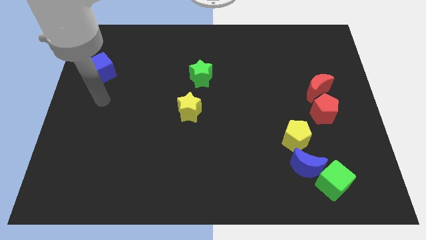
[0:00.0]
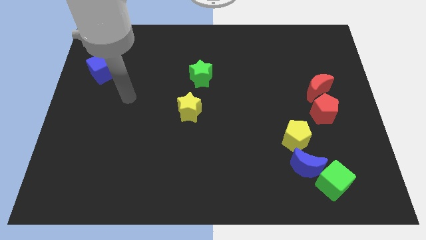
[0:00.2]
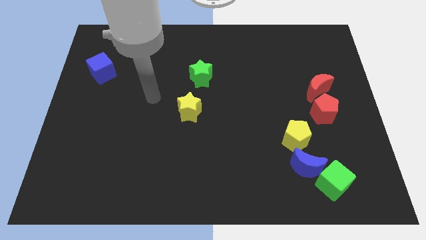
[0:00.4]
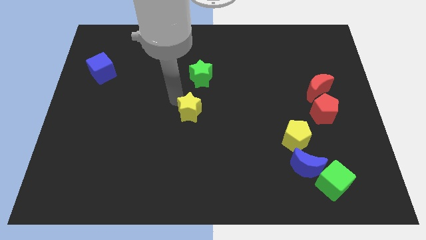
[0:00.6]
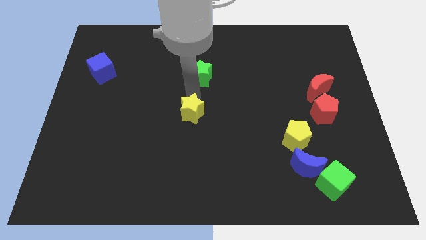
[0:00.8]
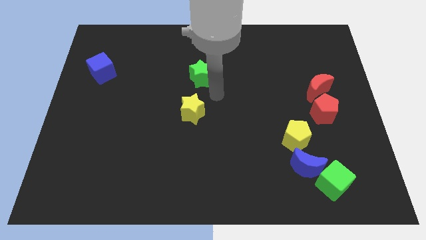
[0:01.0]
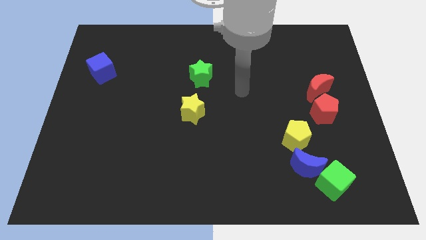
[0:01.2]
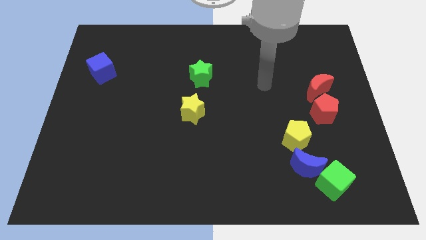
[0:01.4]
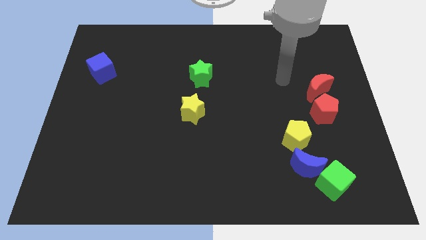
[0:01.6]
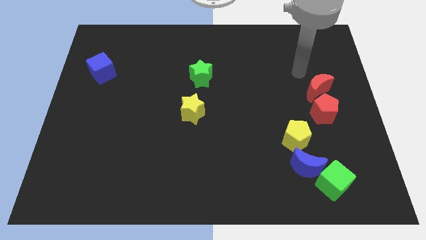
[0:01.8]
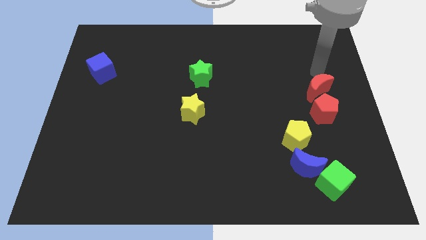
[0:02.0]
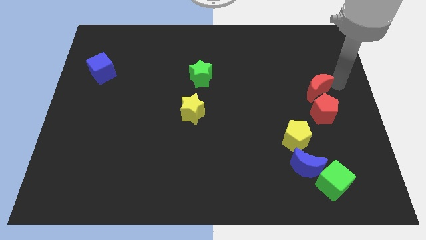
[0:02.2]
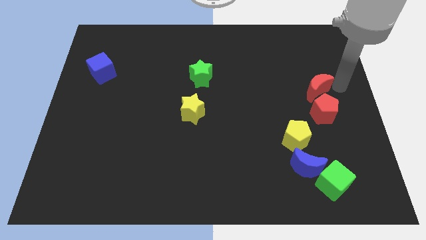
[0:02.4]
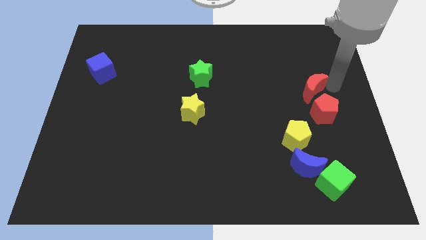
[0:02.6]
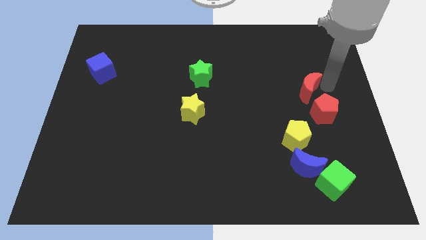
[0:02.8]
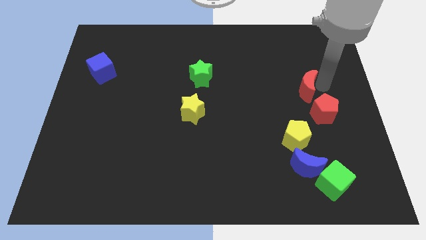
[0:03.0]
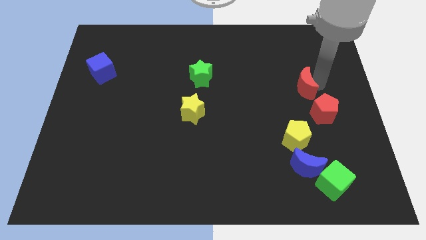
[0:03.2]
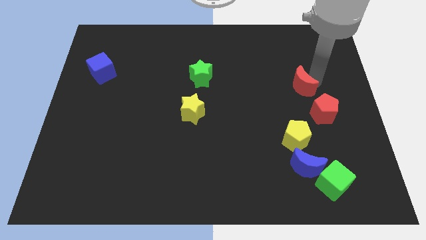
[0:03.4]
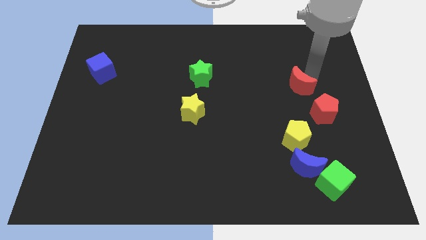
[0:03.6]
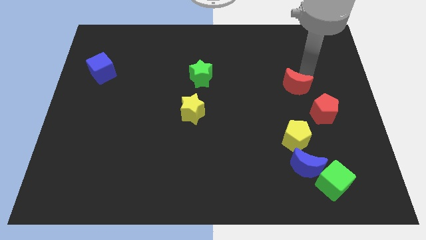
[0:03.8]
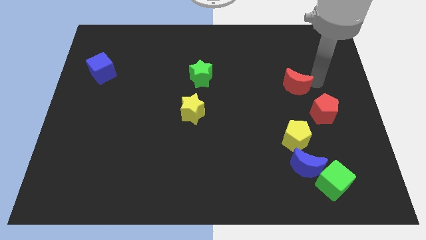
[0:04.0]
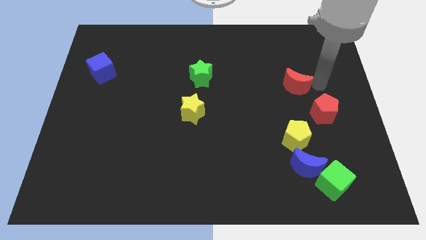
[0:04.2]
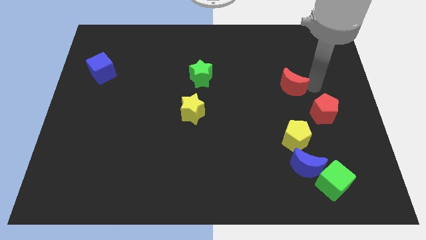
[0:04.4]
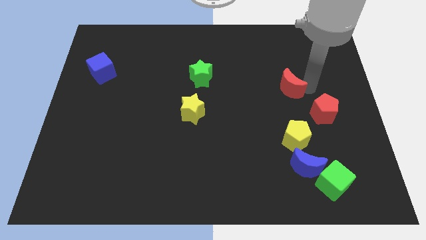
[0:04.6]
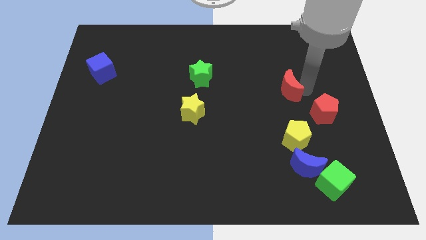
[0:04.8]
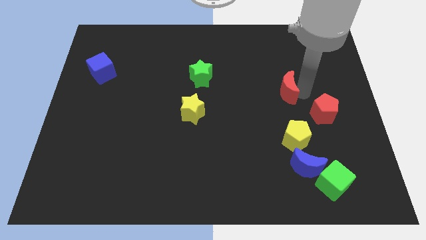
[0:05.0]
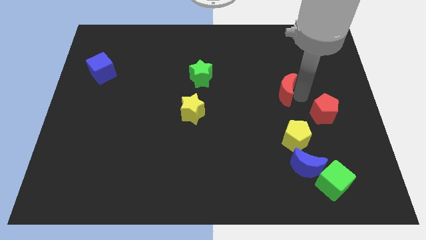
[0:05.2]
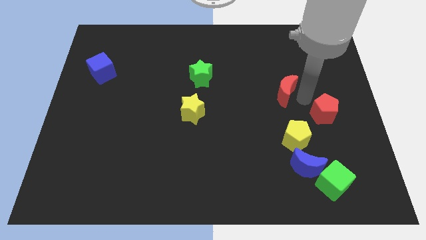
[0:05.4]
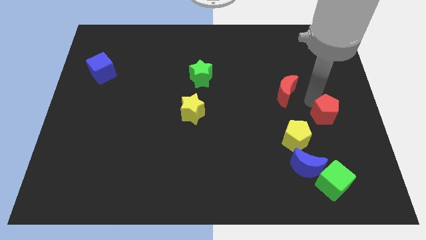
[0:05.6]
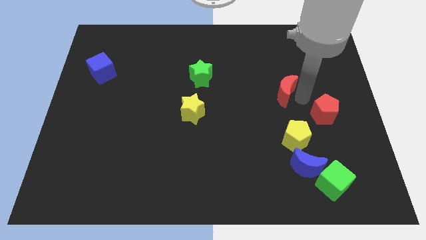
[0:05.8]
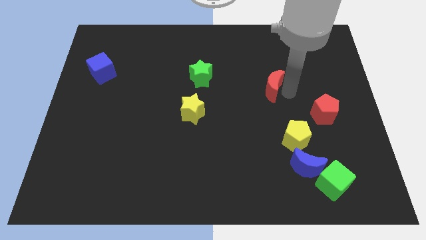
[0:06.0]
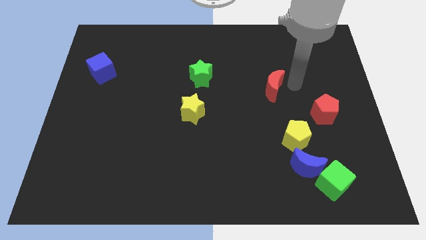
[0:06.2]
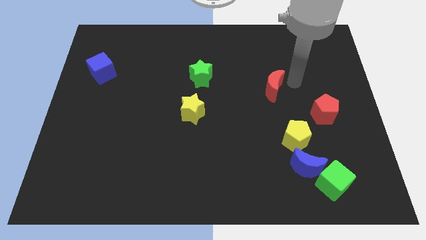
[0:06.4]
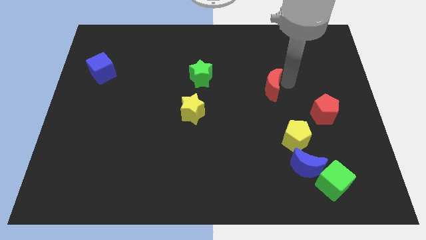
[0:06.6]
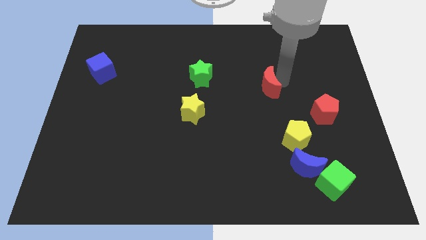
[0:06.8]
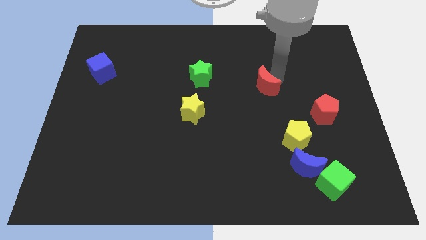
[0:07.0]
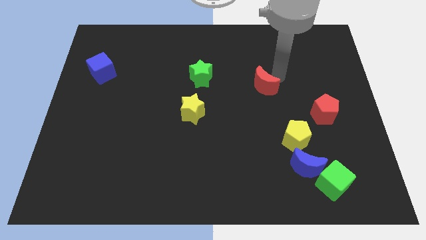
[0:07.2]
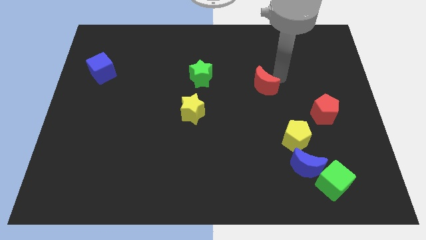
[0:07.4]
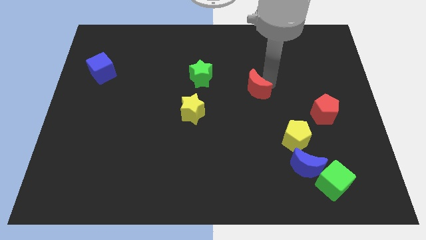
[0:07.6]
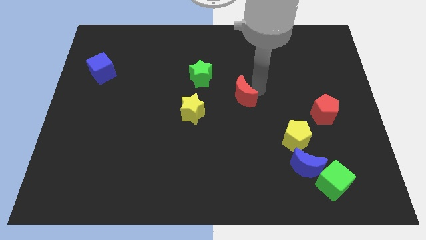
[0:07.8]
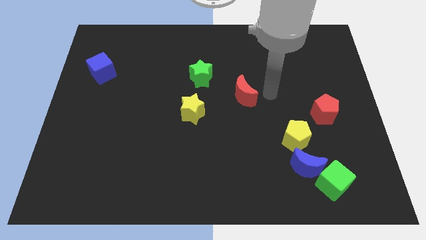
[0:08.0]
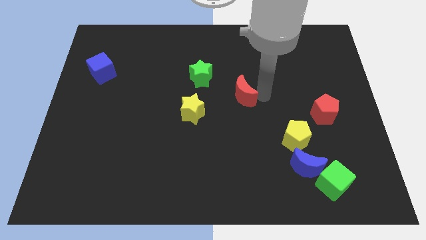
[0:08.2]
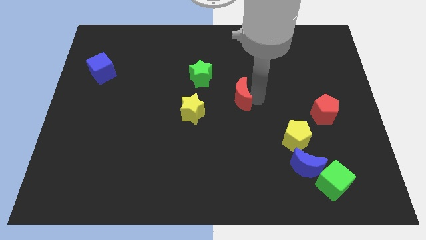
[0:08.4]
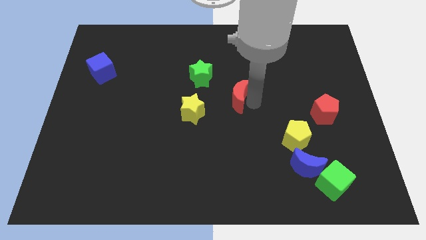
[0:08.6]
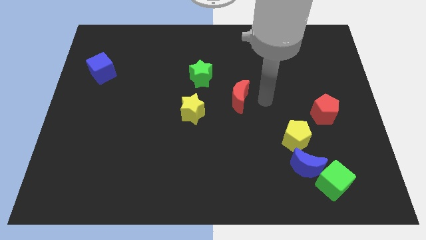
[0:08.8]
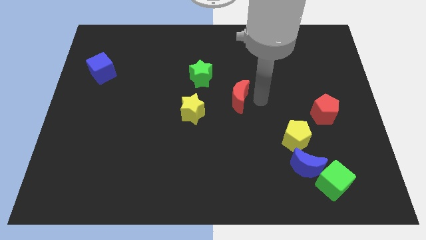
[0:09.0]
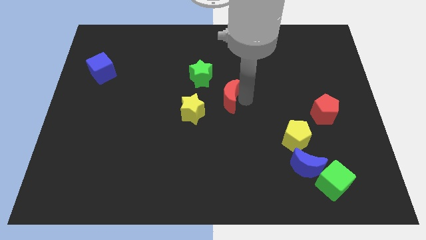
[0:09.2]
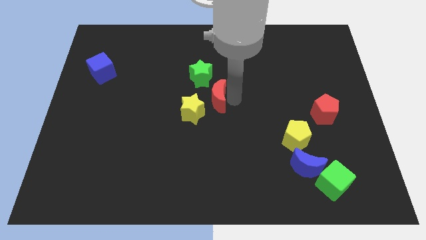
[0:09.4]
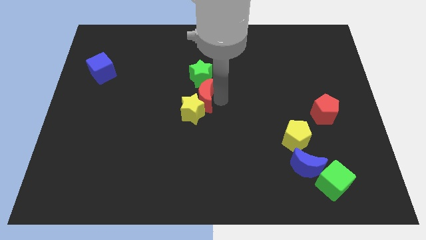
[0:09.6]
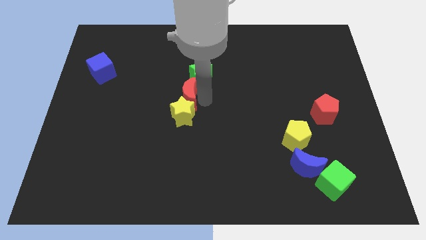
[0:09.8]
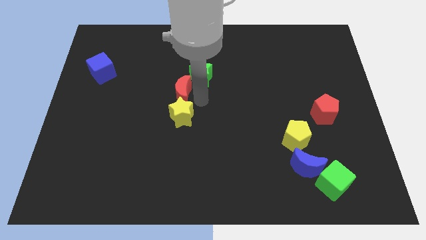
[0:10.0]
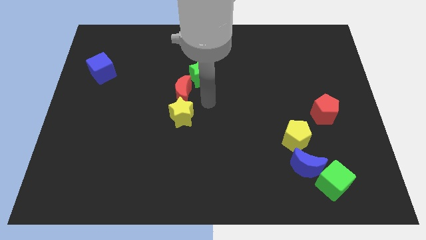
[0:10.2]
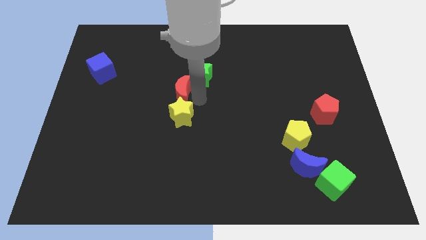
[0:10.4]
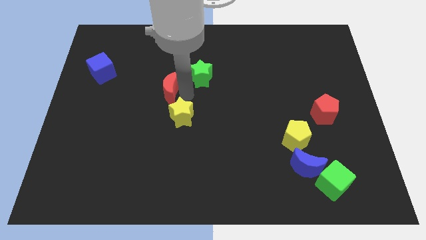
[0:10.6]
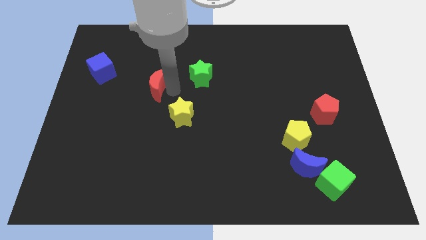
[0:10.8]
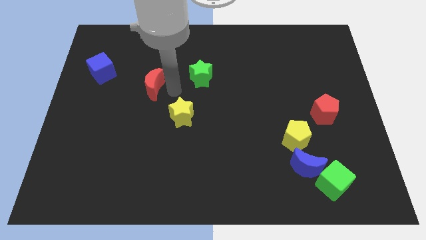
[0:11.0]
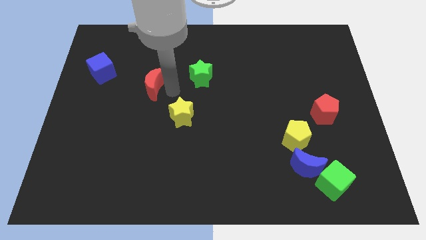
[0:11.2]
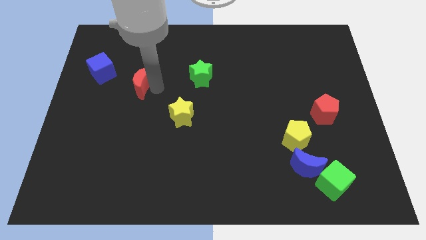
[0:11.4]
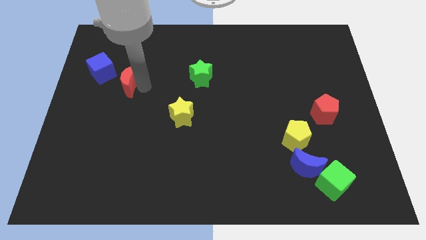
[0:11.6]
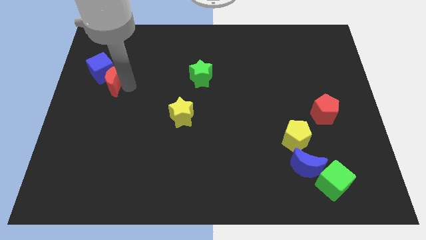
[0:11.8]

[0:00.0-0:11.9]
push the red moon close to the blue cube

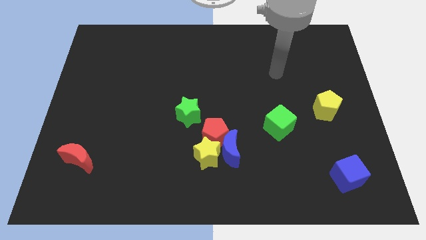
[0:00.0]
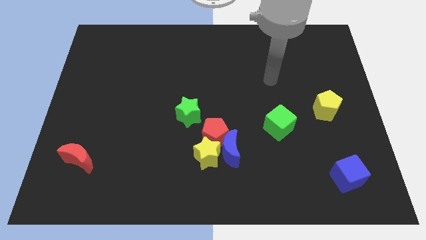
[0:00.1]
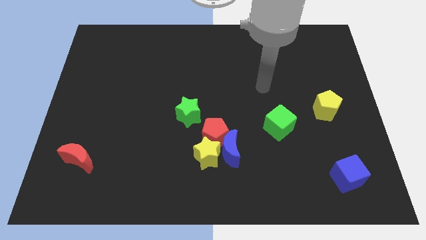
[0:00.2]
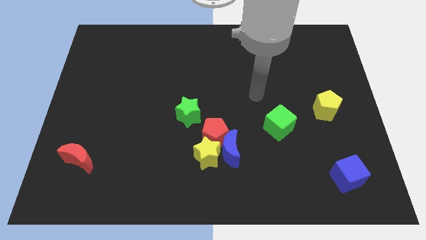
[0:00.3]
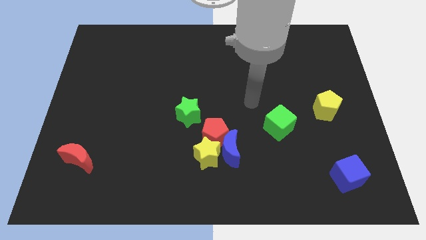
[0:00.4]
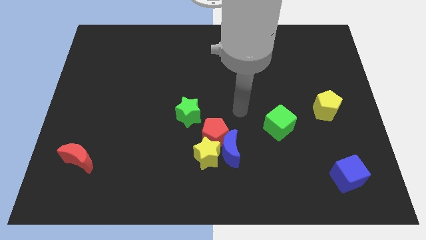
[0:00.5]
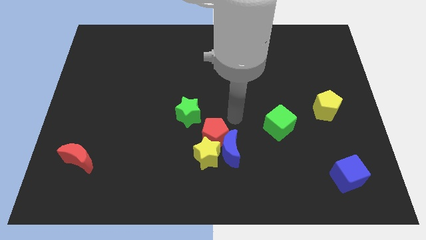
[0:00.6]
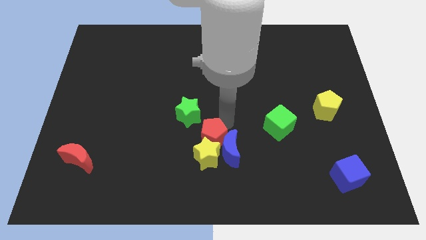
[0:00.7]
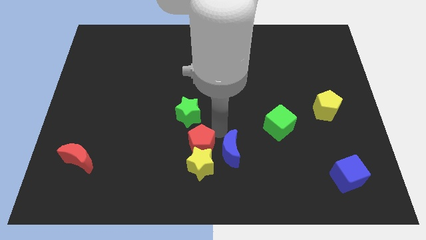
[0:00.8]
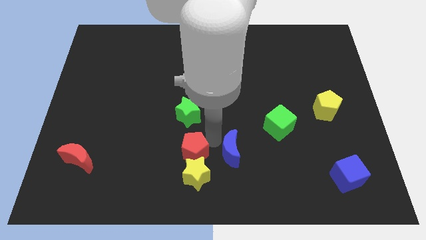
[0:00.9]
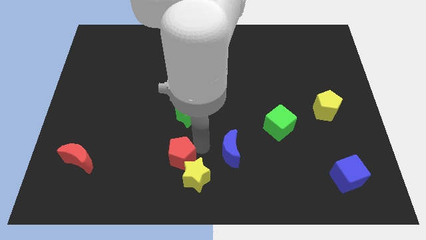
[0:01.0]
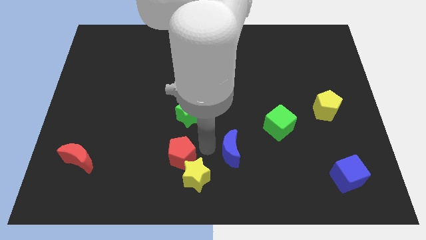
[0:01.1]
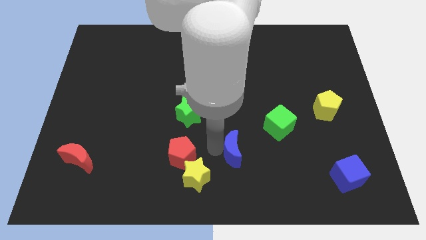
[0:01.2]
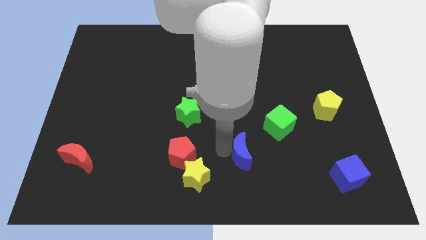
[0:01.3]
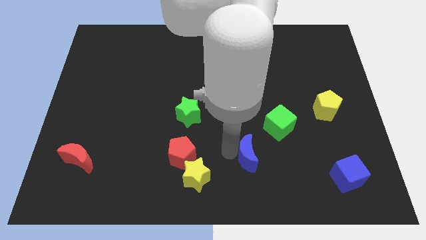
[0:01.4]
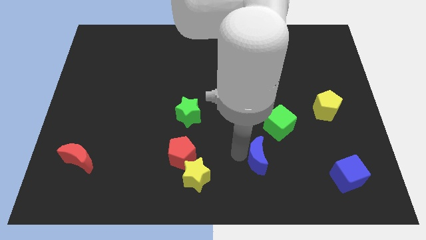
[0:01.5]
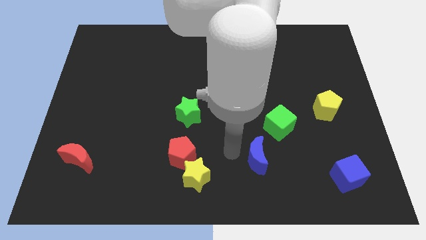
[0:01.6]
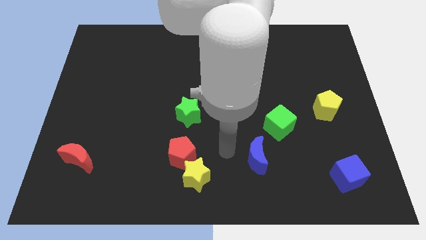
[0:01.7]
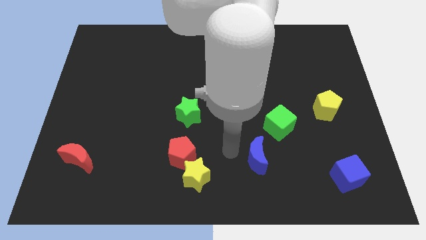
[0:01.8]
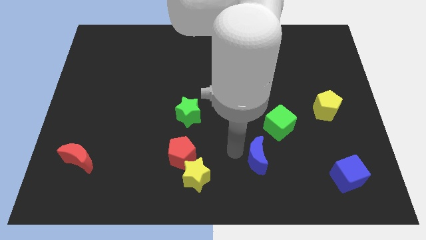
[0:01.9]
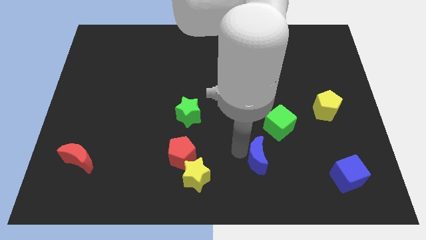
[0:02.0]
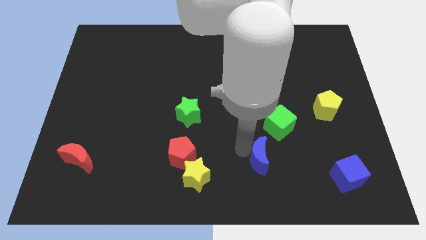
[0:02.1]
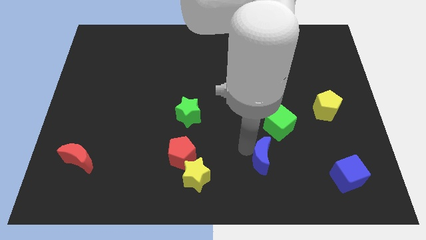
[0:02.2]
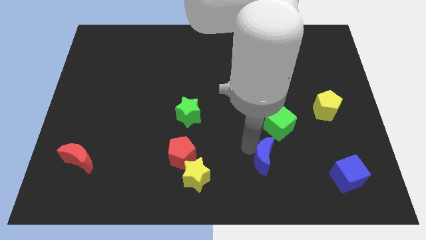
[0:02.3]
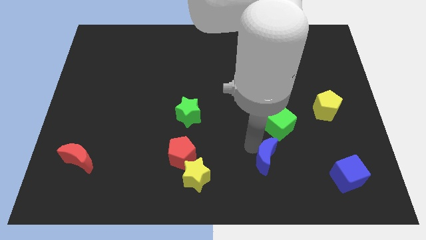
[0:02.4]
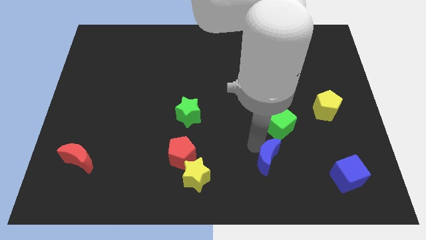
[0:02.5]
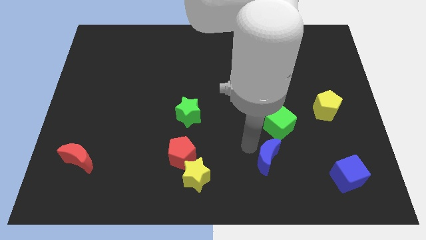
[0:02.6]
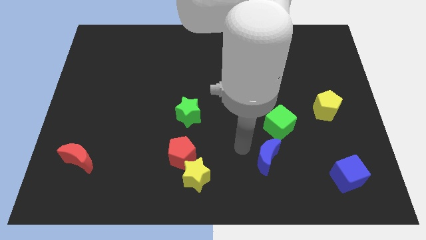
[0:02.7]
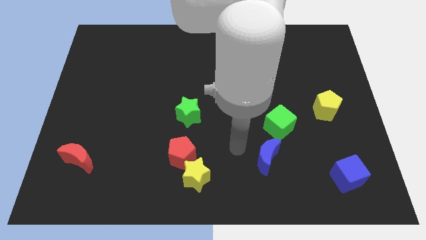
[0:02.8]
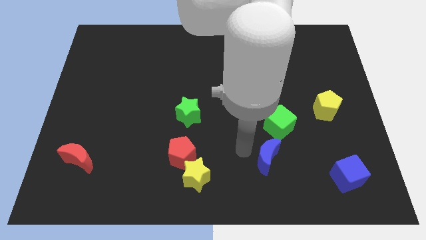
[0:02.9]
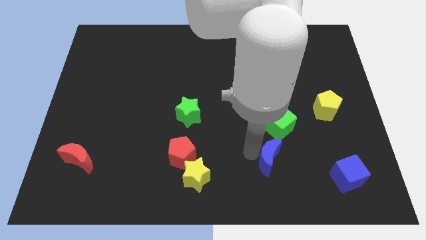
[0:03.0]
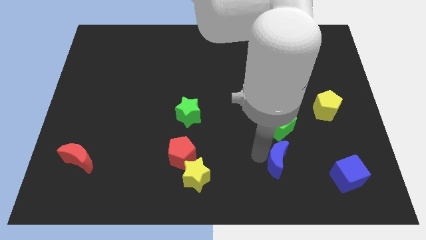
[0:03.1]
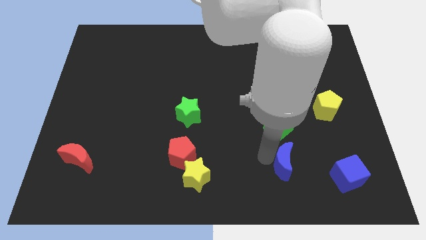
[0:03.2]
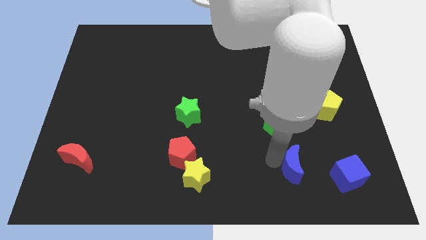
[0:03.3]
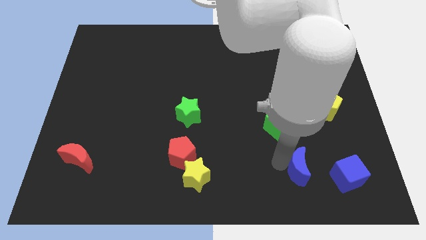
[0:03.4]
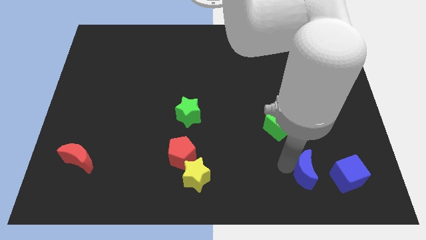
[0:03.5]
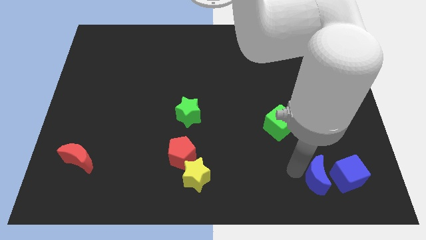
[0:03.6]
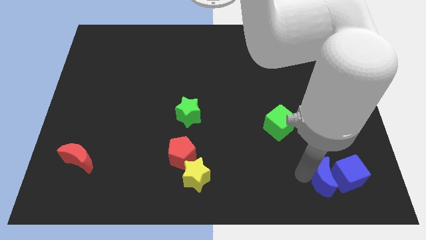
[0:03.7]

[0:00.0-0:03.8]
slide the blue moon to the blue cube
